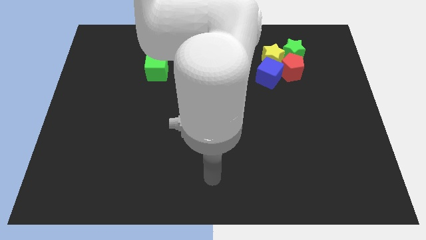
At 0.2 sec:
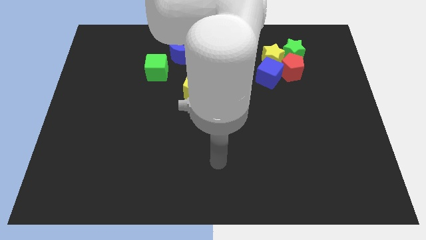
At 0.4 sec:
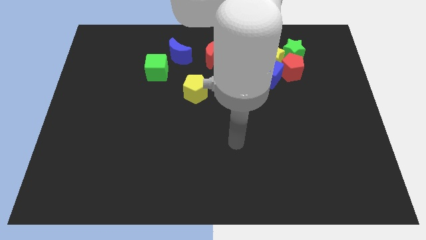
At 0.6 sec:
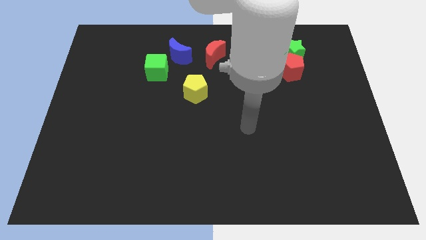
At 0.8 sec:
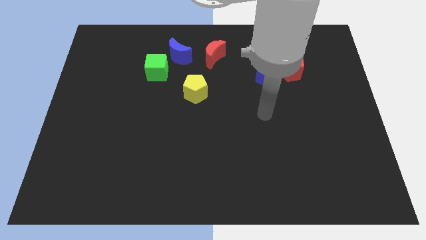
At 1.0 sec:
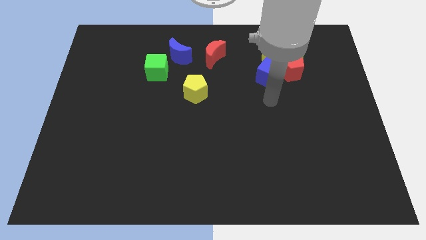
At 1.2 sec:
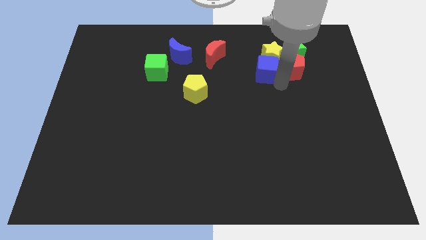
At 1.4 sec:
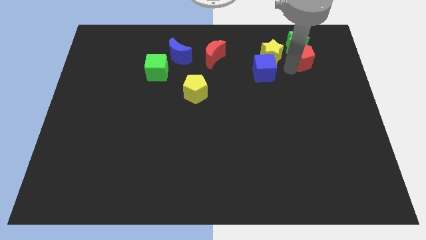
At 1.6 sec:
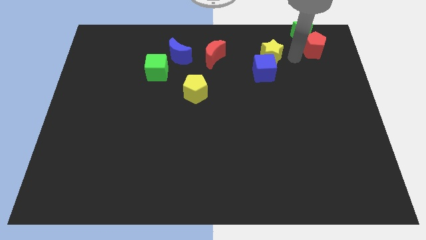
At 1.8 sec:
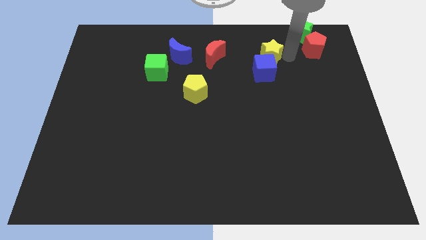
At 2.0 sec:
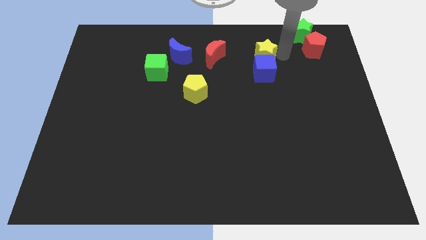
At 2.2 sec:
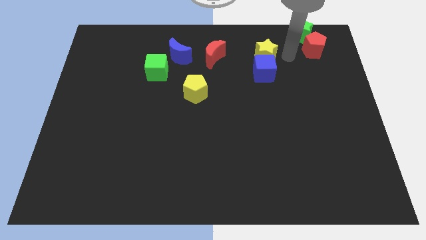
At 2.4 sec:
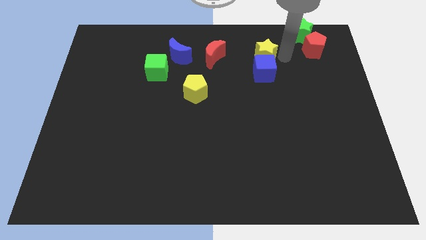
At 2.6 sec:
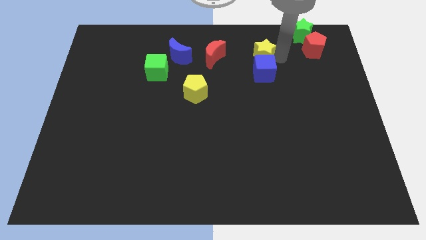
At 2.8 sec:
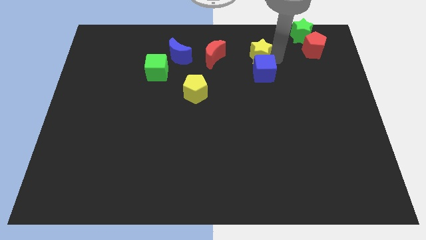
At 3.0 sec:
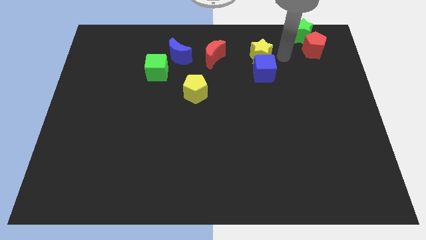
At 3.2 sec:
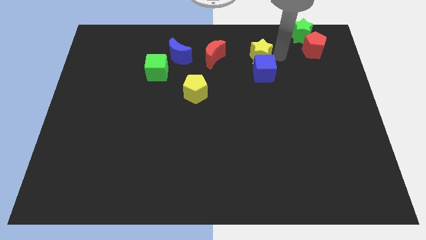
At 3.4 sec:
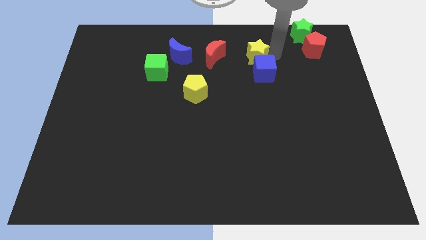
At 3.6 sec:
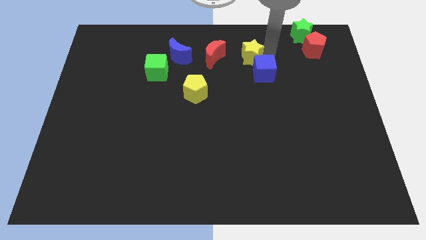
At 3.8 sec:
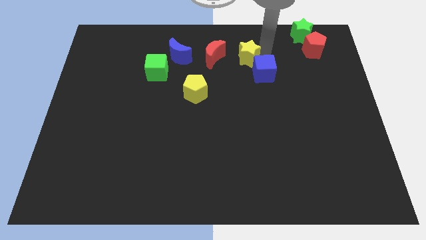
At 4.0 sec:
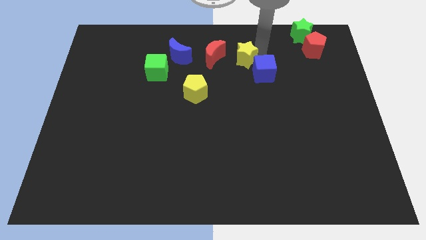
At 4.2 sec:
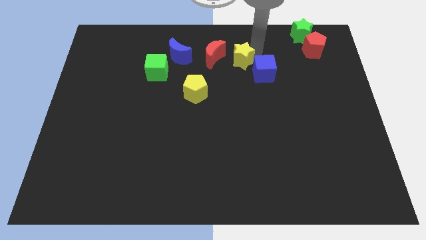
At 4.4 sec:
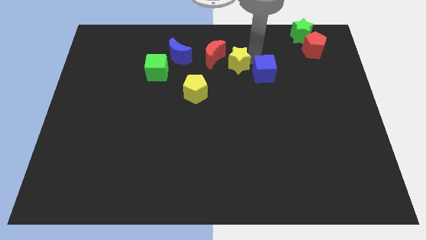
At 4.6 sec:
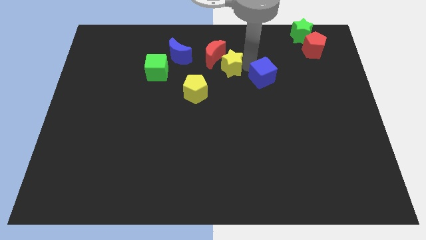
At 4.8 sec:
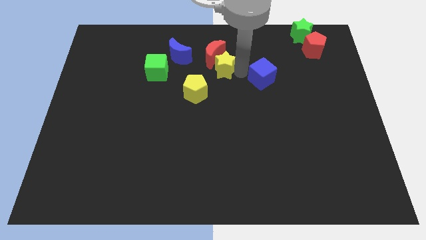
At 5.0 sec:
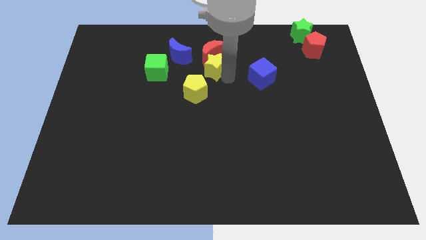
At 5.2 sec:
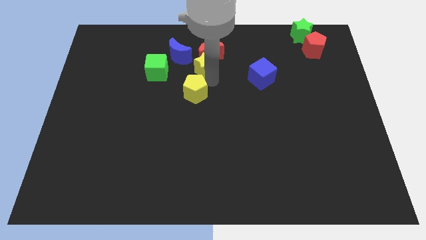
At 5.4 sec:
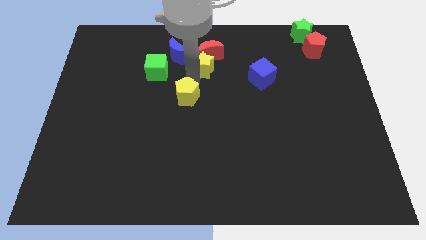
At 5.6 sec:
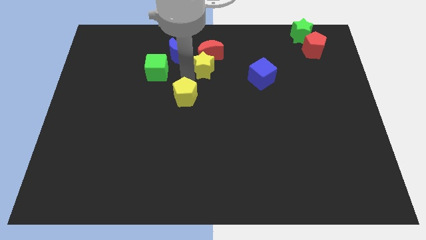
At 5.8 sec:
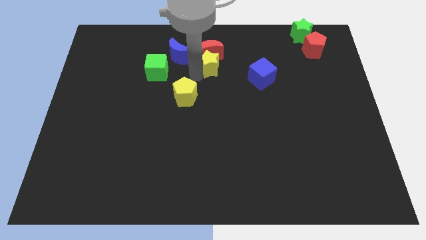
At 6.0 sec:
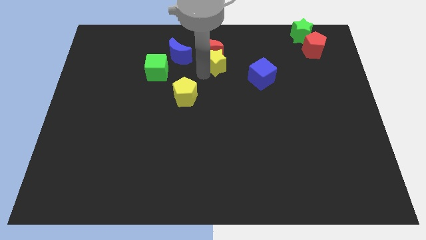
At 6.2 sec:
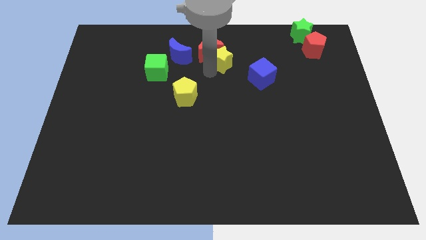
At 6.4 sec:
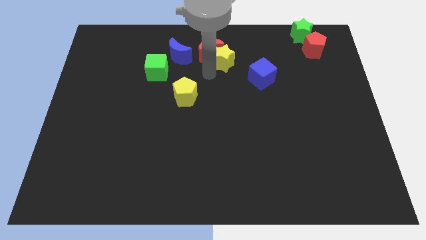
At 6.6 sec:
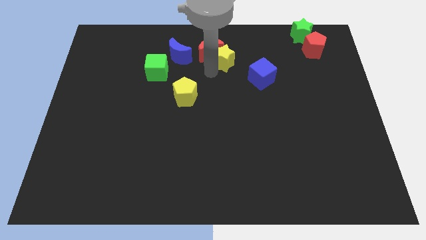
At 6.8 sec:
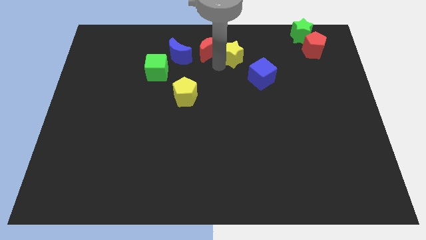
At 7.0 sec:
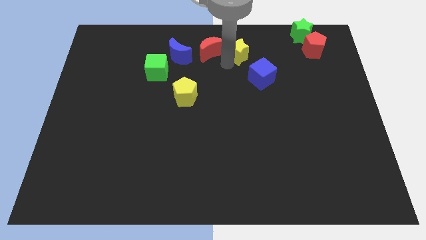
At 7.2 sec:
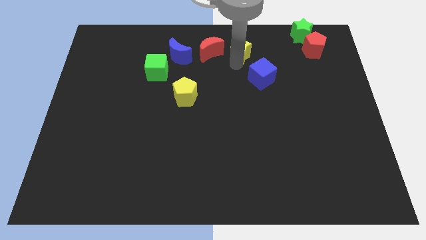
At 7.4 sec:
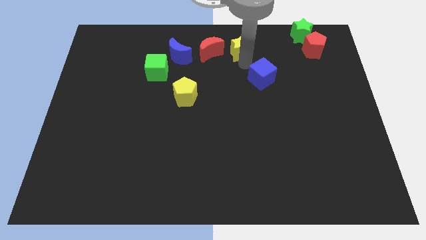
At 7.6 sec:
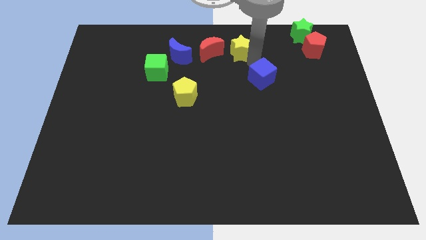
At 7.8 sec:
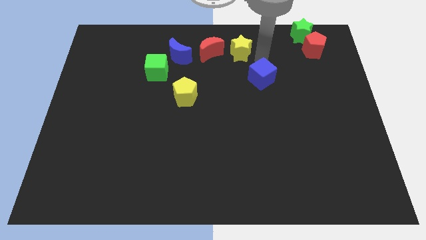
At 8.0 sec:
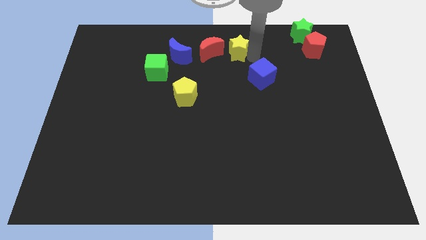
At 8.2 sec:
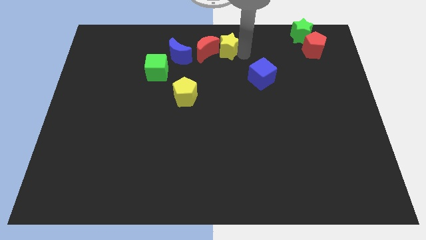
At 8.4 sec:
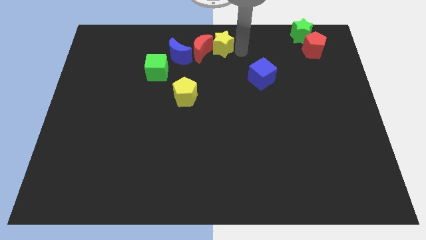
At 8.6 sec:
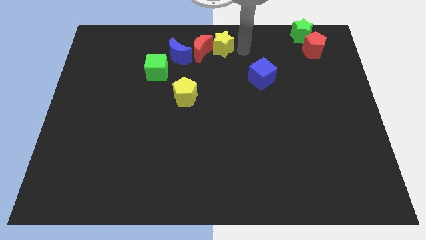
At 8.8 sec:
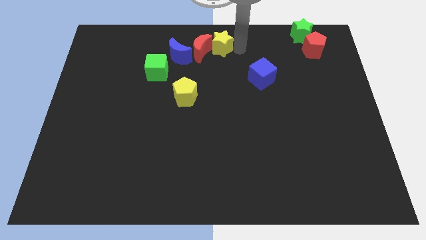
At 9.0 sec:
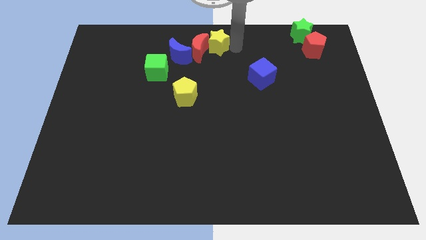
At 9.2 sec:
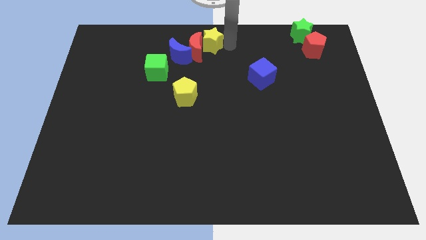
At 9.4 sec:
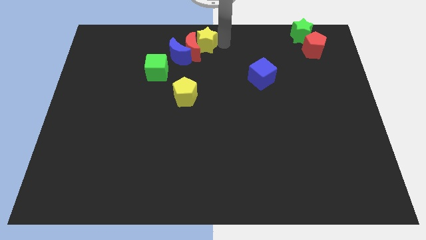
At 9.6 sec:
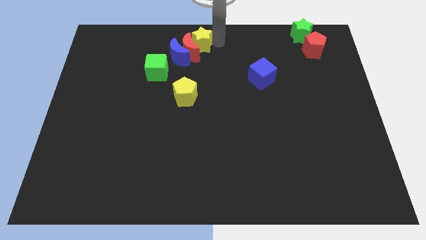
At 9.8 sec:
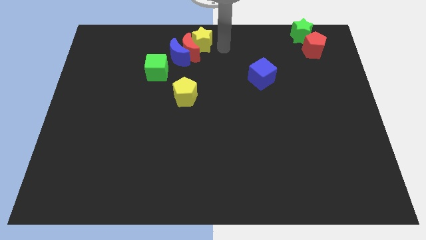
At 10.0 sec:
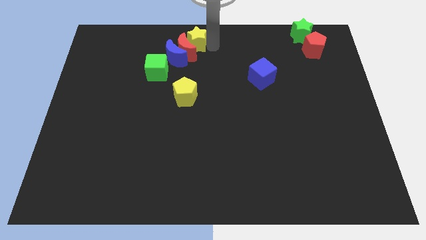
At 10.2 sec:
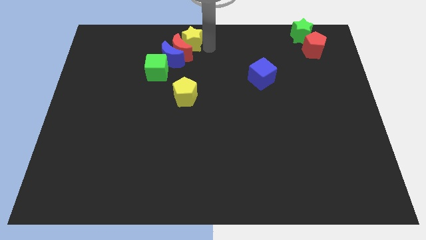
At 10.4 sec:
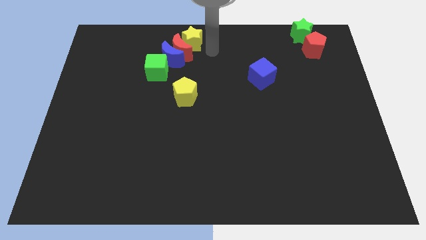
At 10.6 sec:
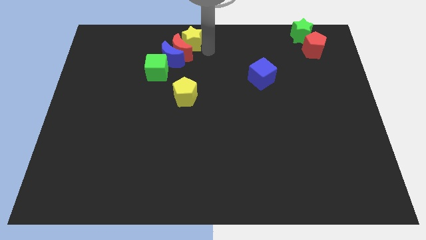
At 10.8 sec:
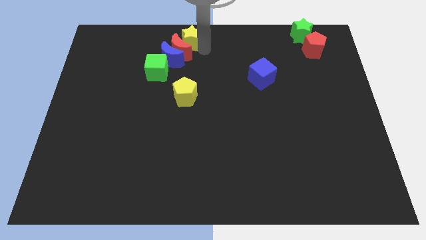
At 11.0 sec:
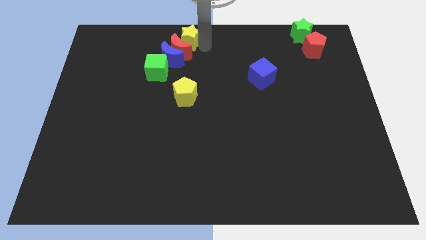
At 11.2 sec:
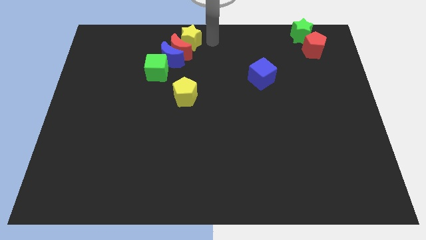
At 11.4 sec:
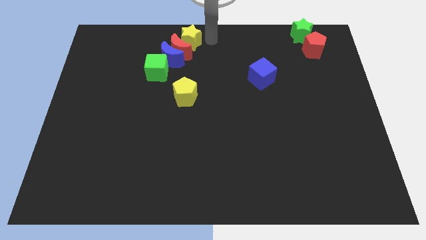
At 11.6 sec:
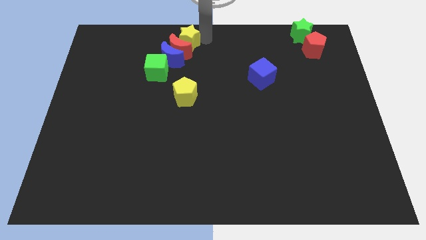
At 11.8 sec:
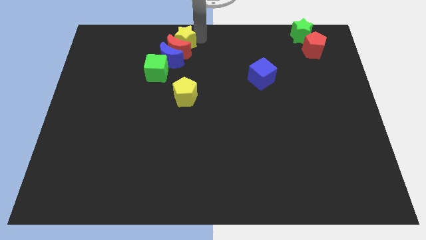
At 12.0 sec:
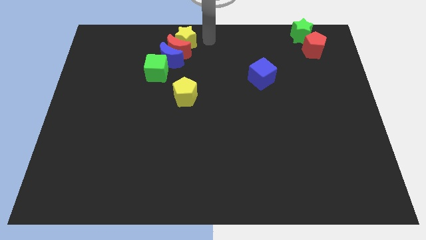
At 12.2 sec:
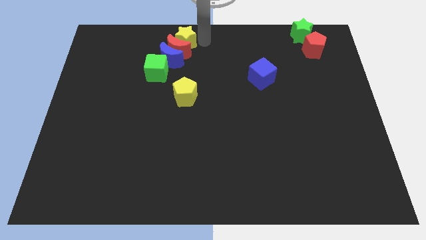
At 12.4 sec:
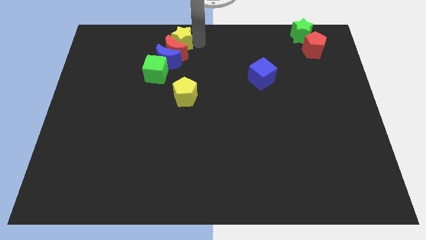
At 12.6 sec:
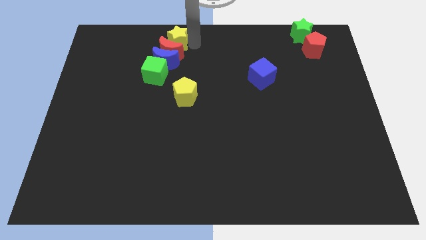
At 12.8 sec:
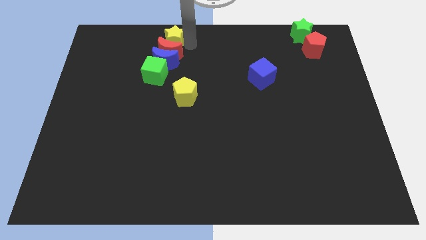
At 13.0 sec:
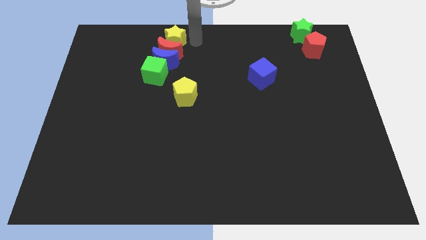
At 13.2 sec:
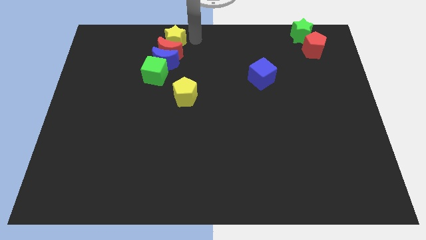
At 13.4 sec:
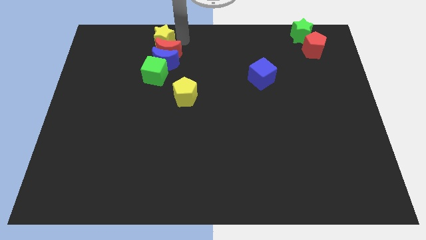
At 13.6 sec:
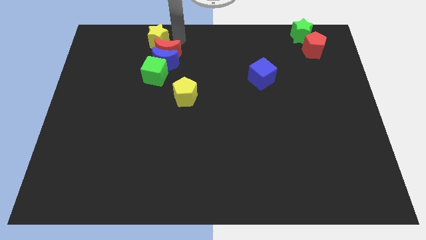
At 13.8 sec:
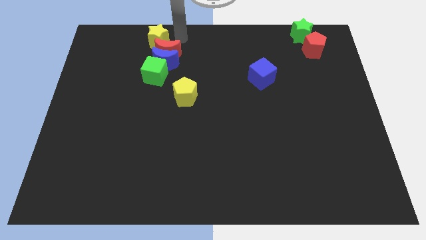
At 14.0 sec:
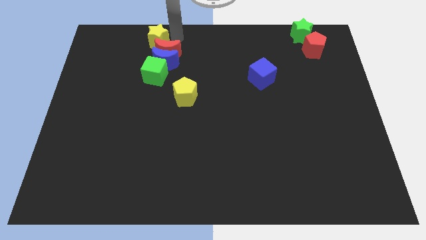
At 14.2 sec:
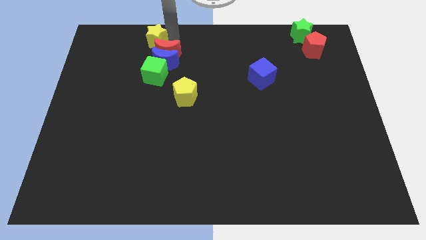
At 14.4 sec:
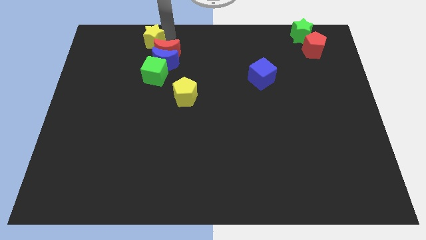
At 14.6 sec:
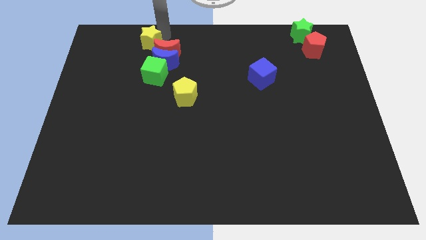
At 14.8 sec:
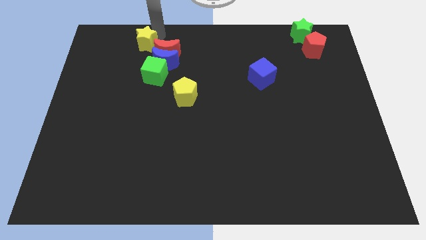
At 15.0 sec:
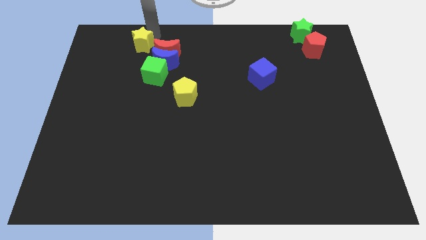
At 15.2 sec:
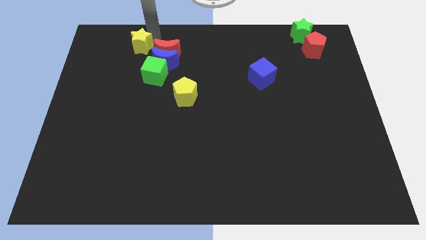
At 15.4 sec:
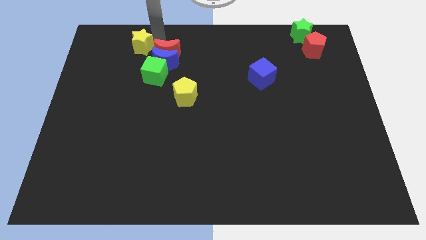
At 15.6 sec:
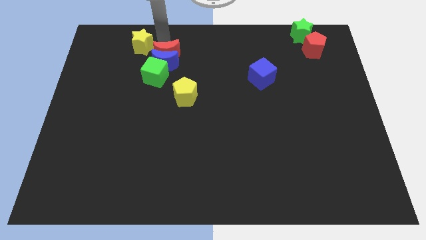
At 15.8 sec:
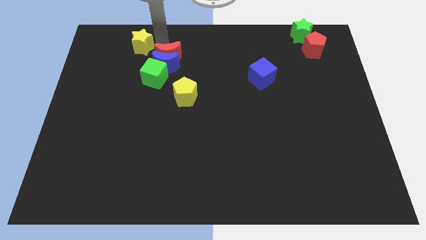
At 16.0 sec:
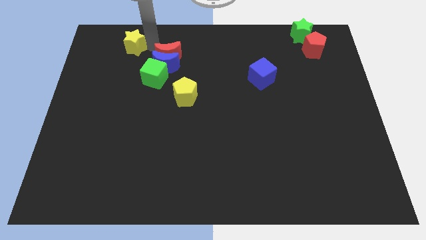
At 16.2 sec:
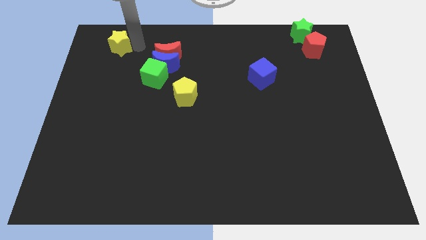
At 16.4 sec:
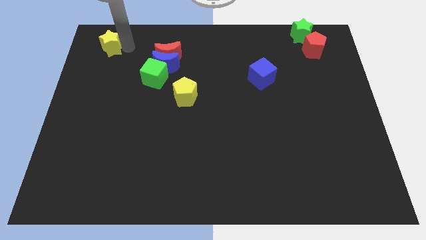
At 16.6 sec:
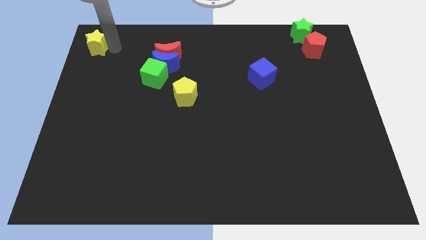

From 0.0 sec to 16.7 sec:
push the yellow star to the top left of the board
